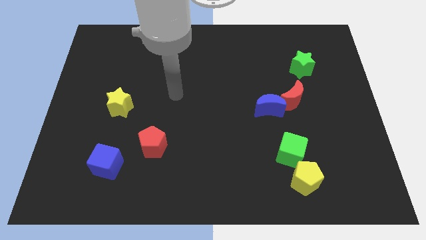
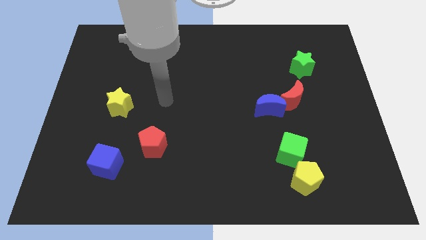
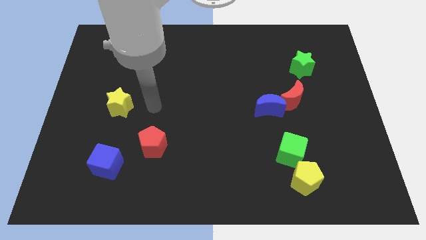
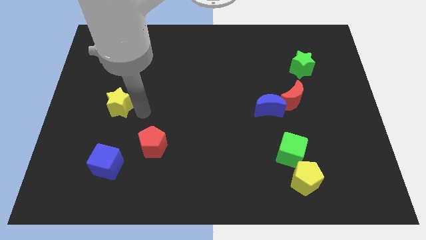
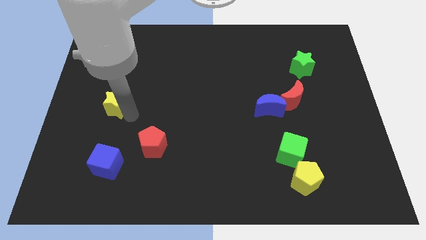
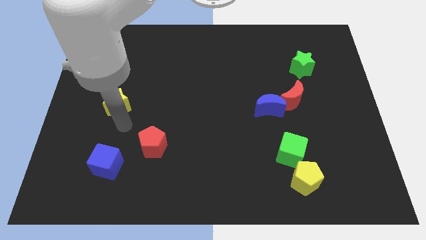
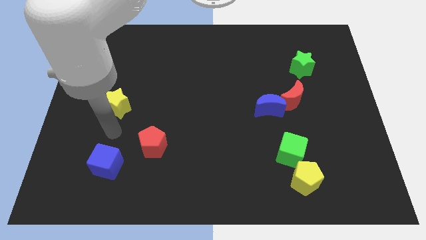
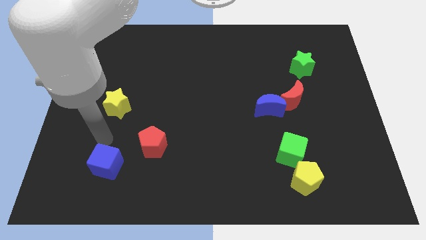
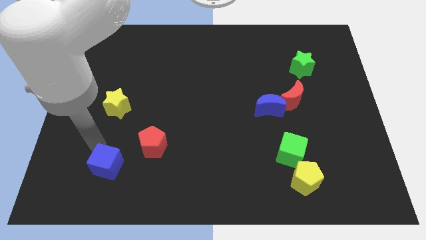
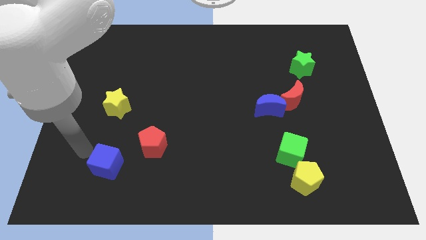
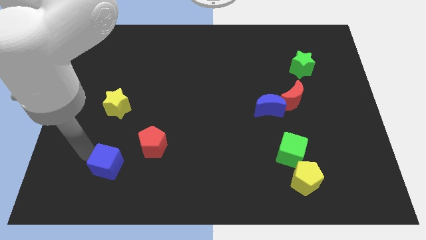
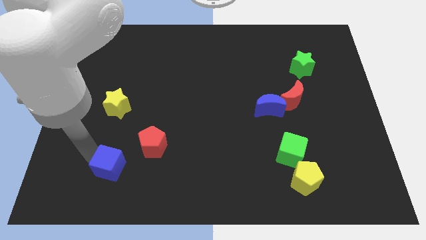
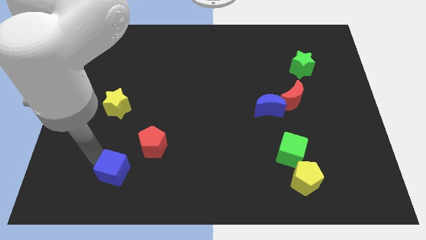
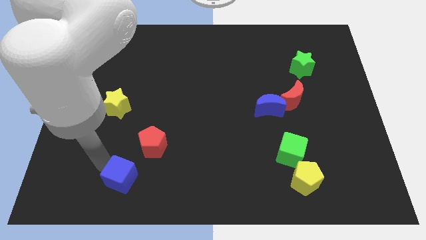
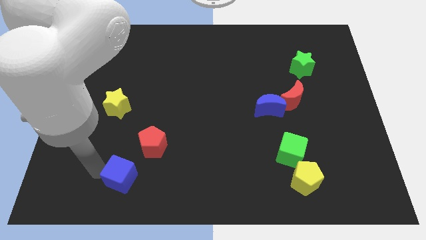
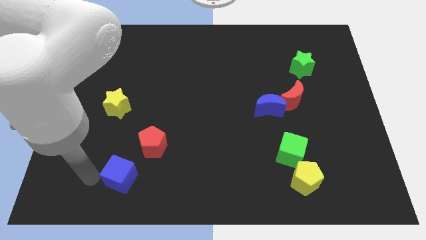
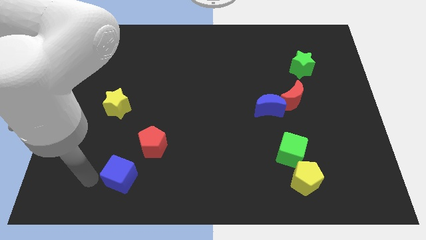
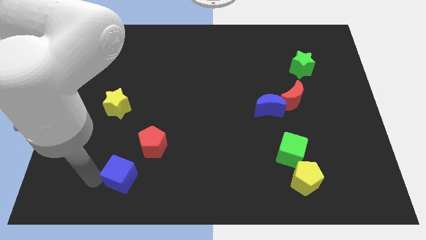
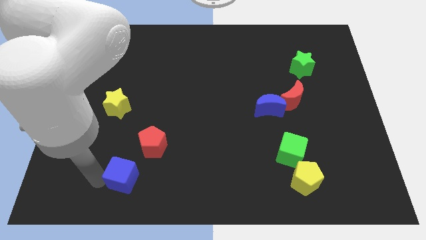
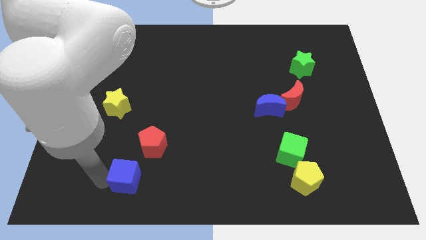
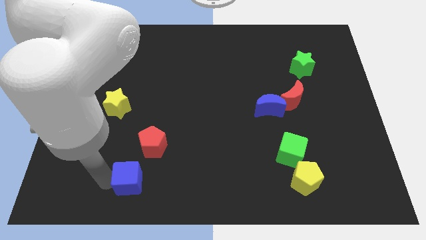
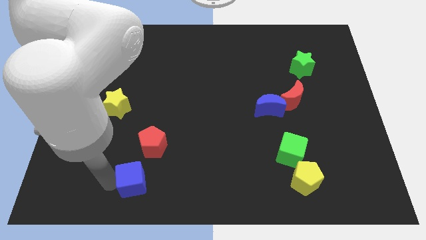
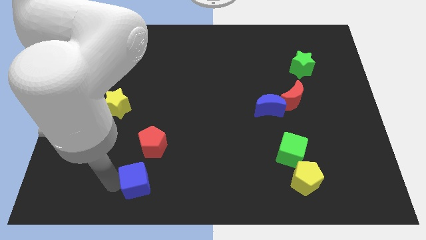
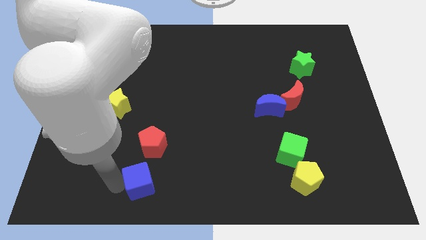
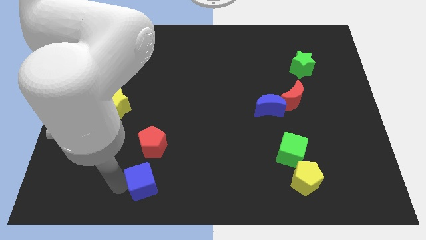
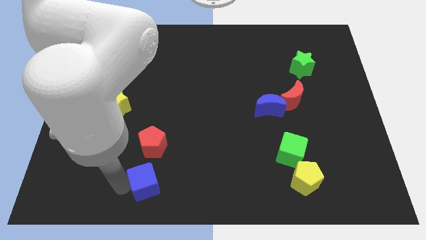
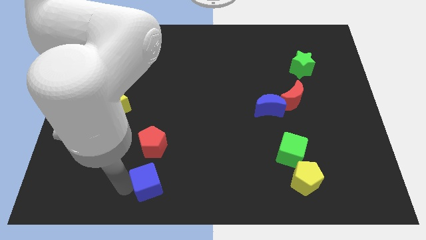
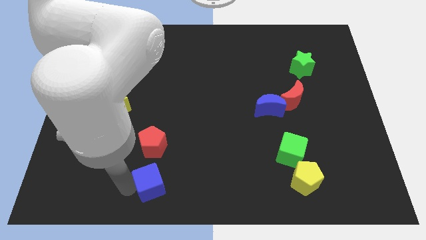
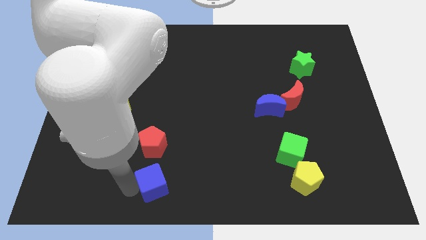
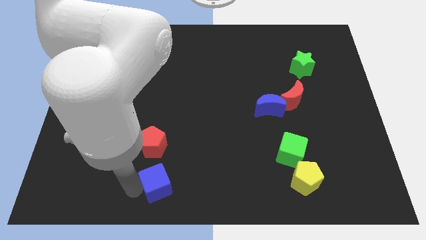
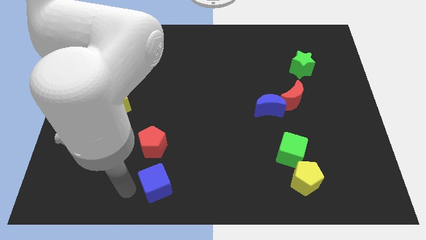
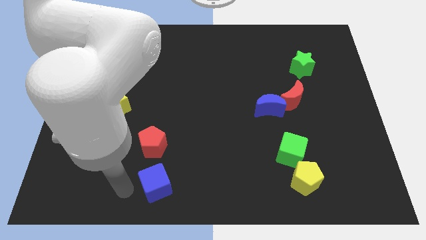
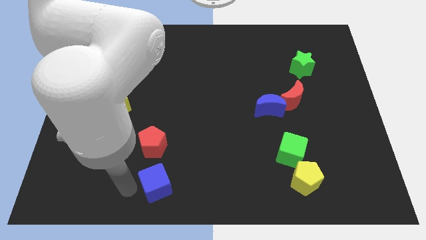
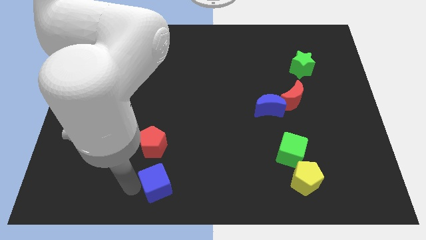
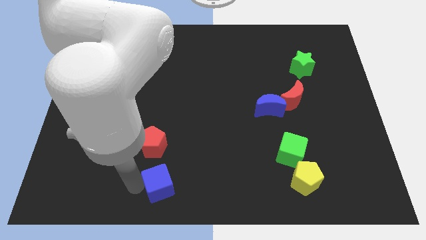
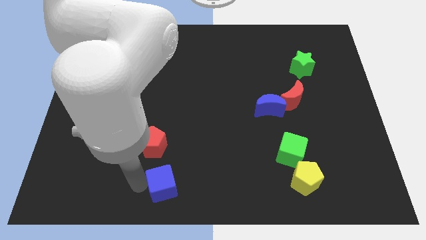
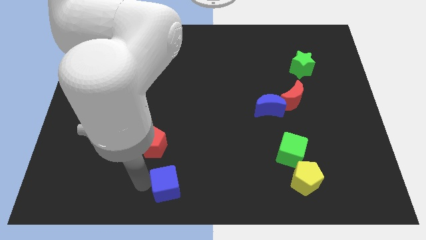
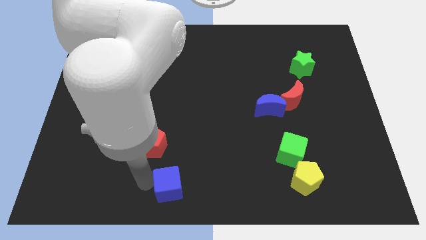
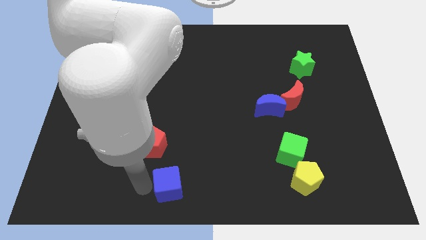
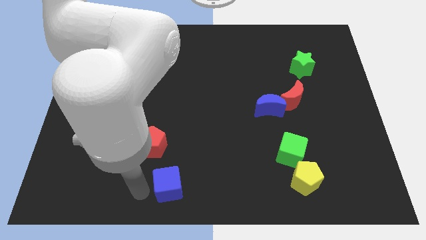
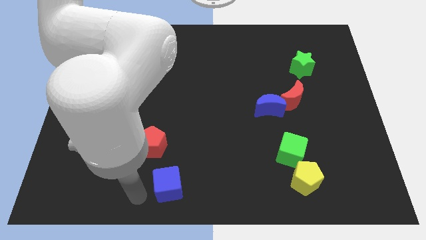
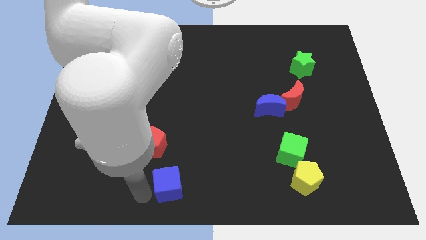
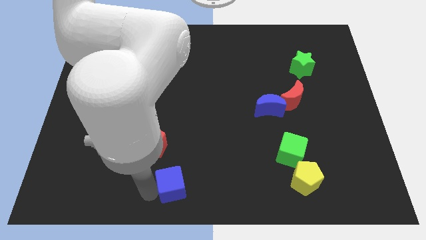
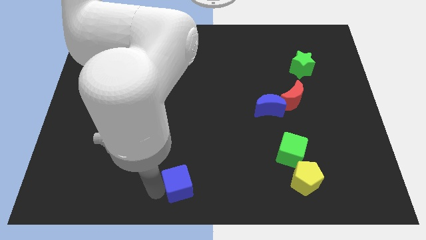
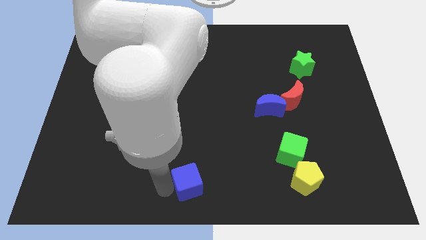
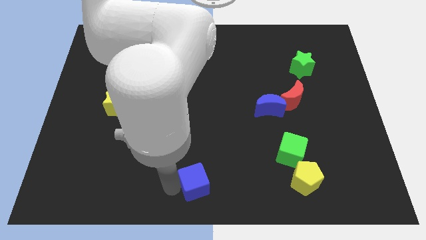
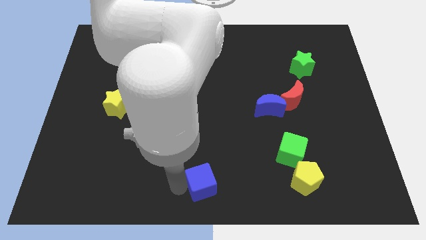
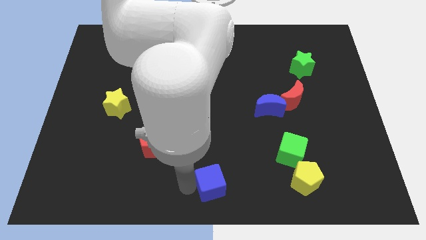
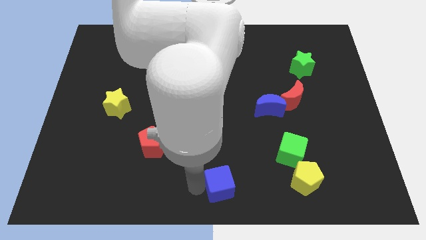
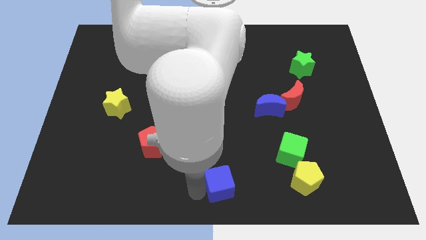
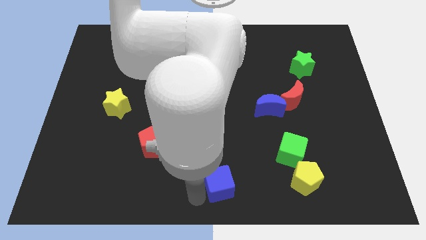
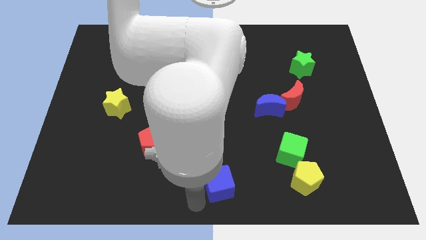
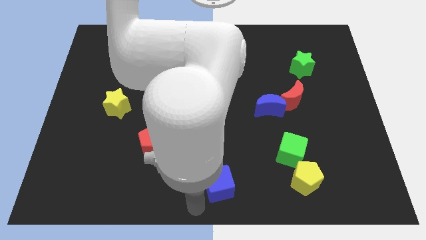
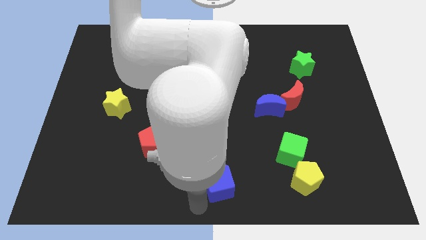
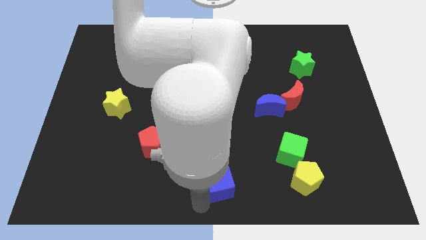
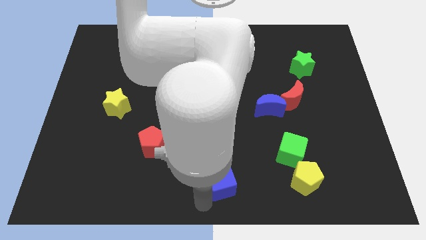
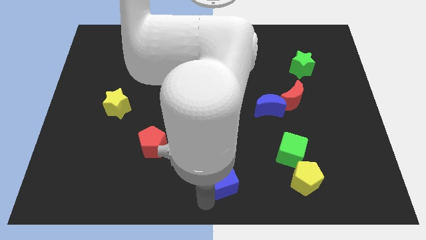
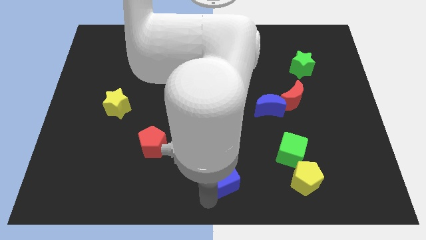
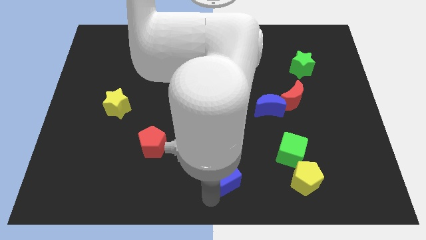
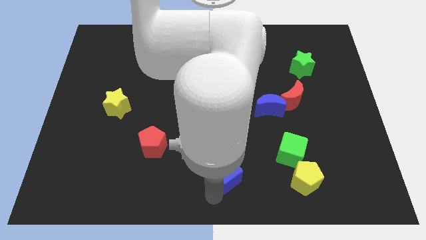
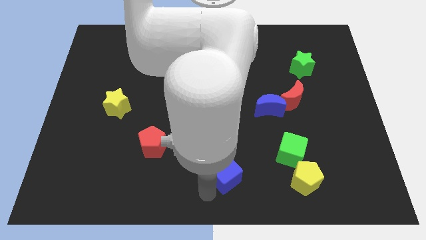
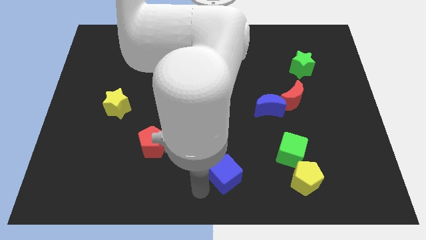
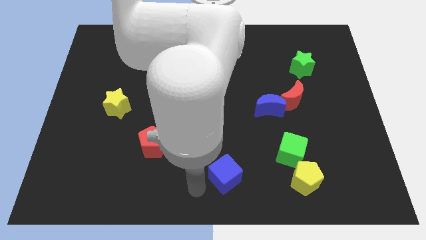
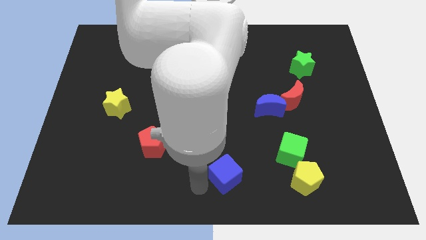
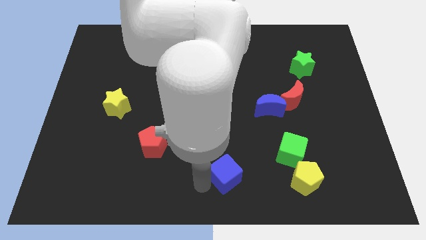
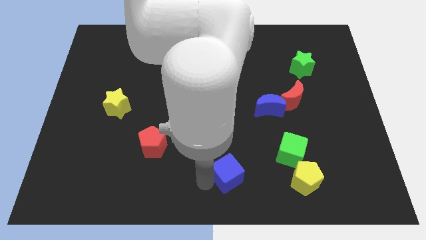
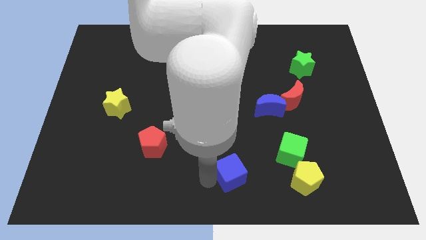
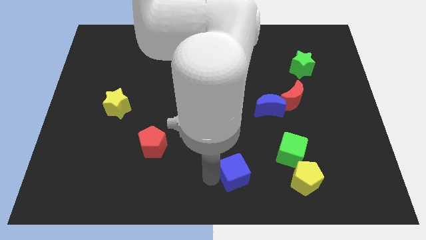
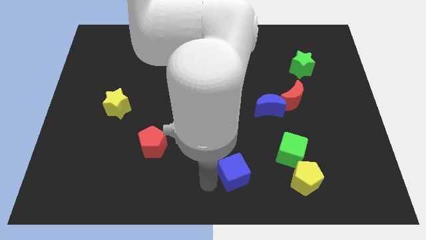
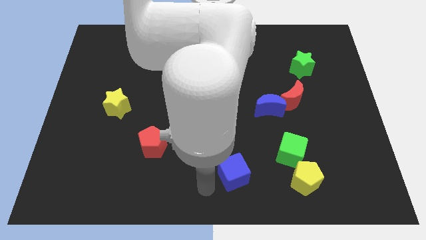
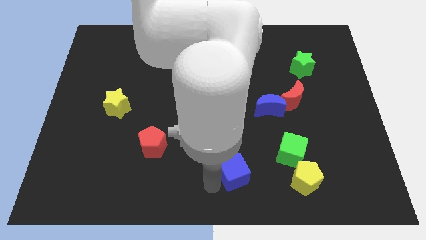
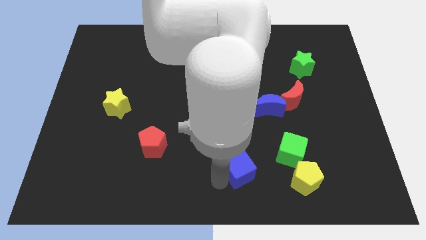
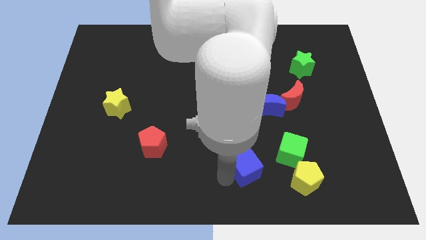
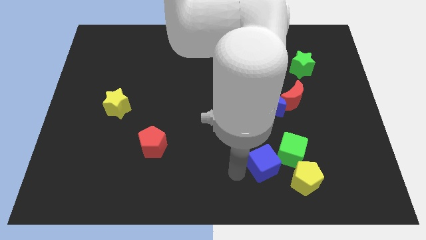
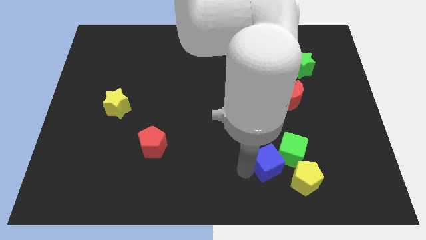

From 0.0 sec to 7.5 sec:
move the blue cube close to the green cube
